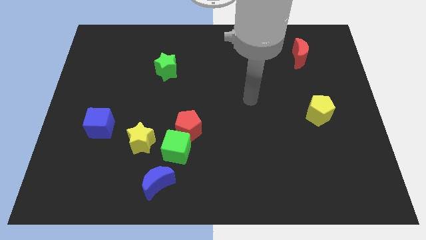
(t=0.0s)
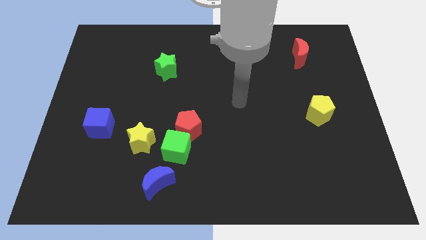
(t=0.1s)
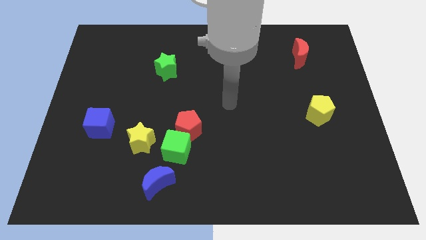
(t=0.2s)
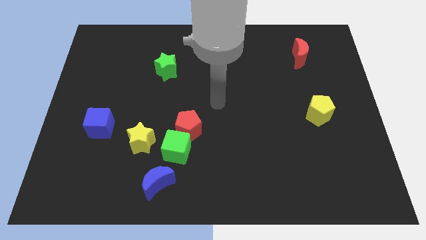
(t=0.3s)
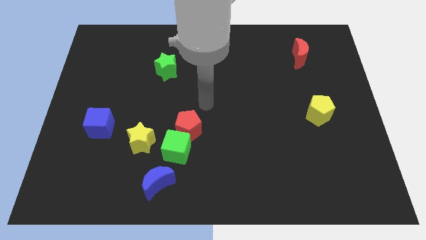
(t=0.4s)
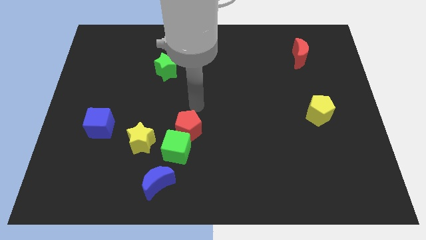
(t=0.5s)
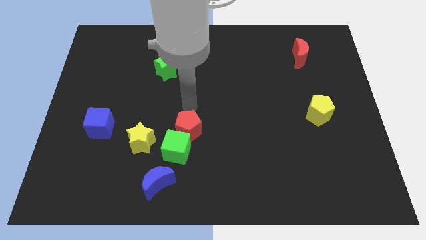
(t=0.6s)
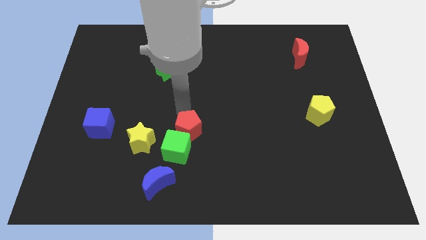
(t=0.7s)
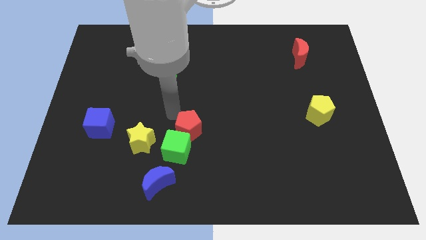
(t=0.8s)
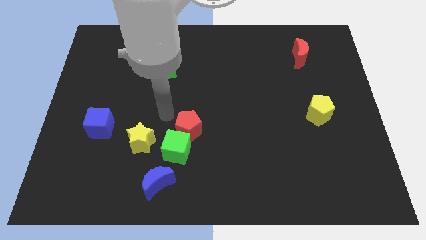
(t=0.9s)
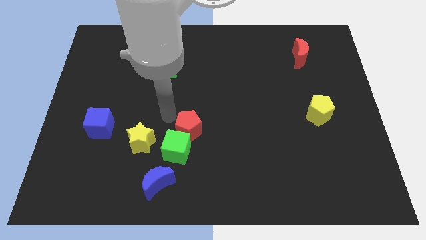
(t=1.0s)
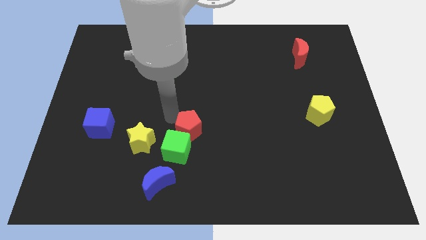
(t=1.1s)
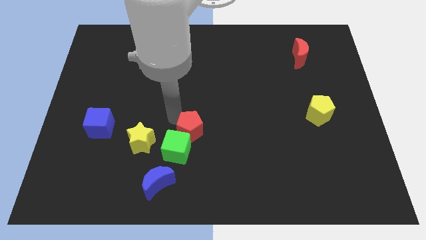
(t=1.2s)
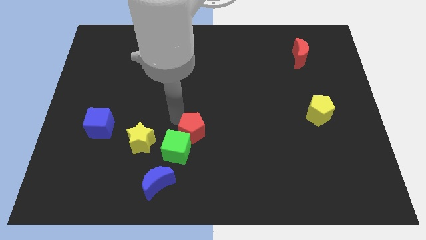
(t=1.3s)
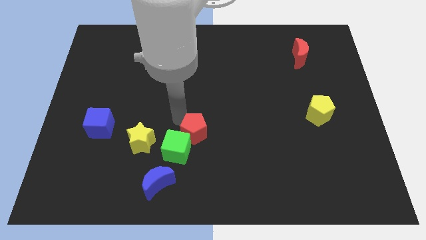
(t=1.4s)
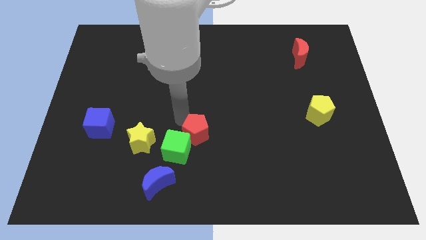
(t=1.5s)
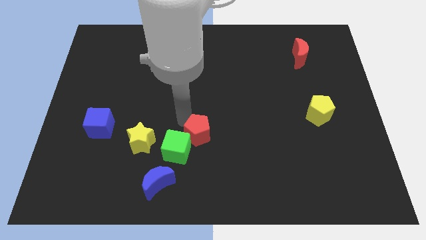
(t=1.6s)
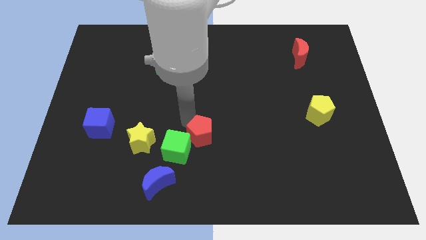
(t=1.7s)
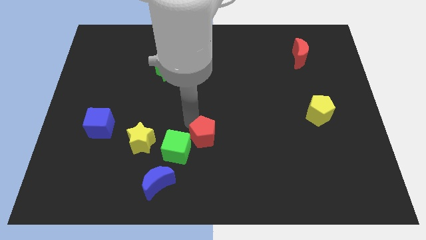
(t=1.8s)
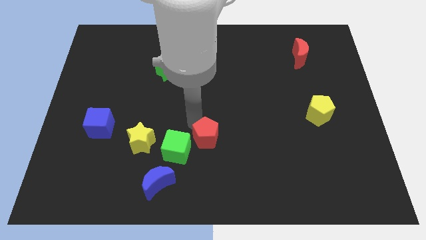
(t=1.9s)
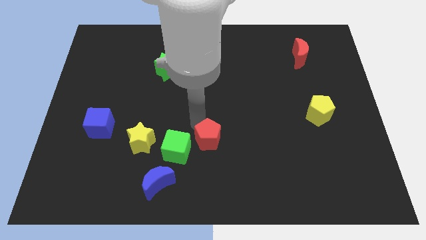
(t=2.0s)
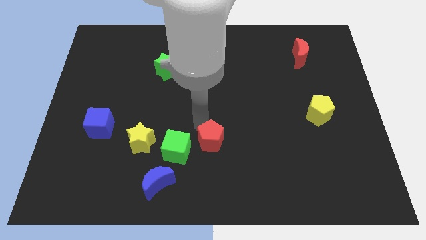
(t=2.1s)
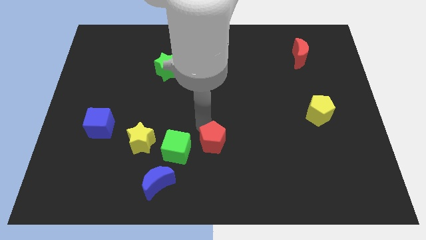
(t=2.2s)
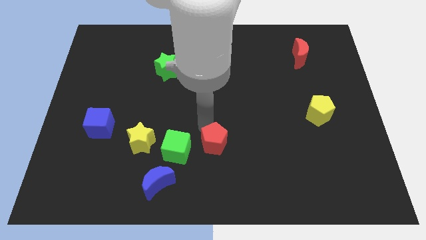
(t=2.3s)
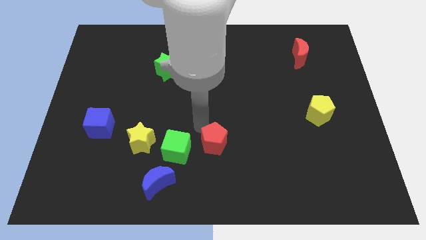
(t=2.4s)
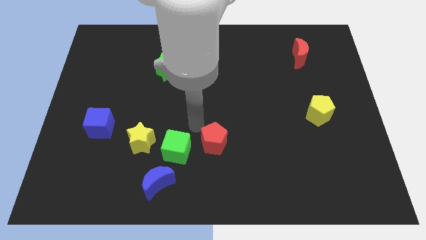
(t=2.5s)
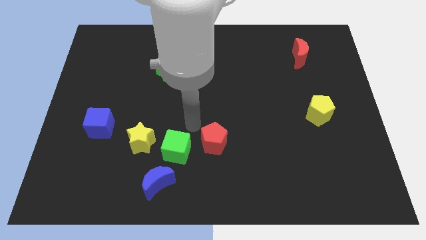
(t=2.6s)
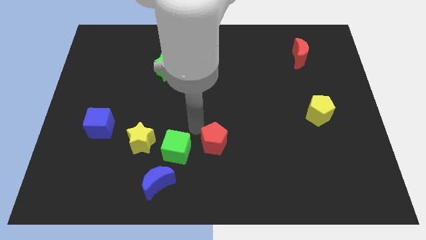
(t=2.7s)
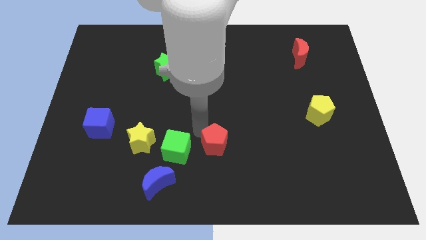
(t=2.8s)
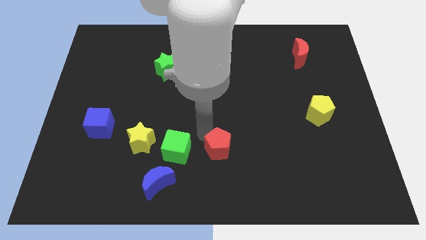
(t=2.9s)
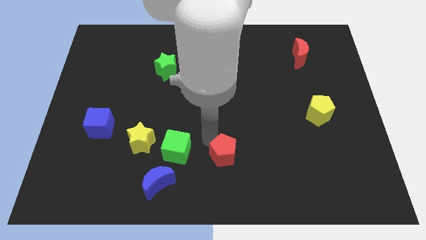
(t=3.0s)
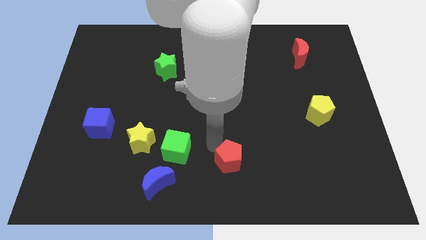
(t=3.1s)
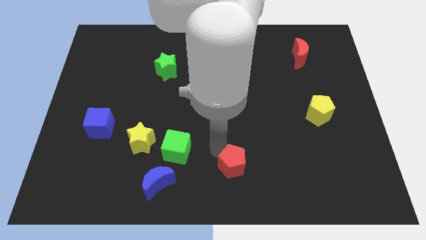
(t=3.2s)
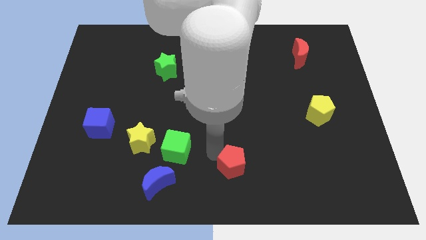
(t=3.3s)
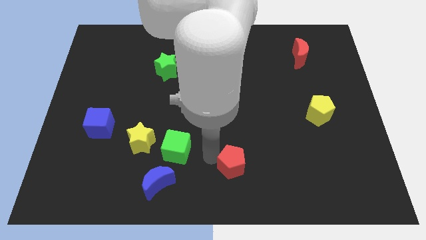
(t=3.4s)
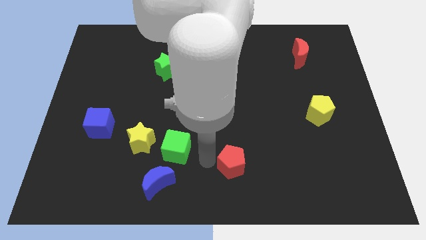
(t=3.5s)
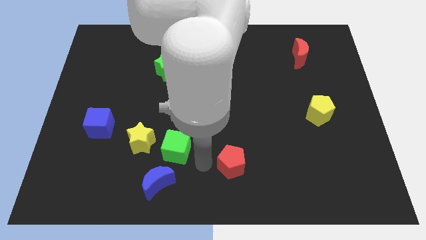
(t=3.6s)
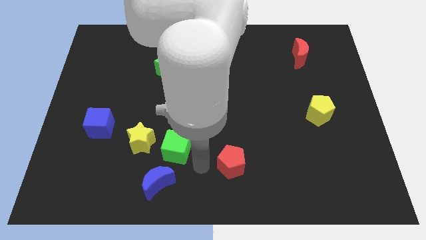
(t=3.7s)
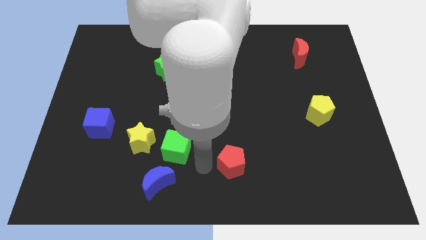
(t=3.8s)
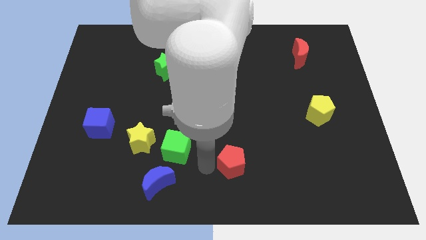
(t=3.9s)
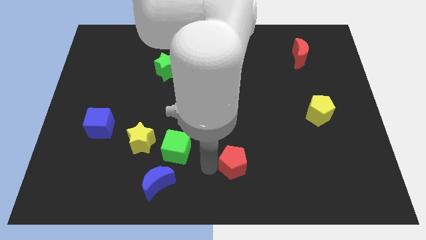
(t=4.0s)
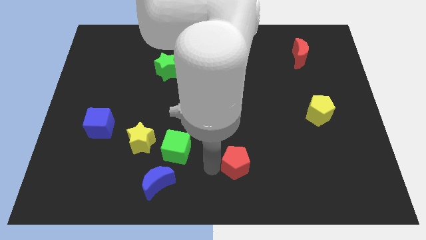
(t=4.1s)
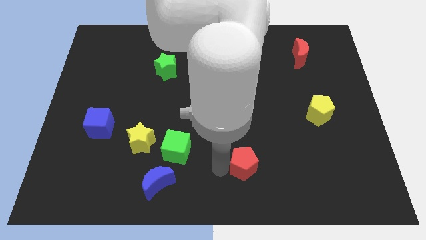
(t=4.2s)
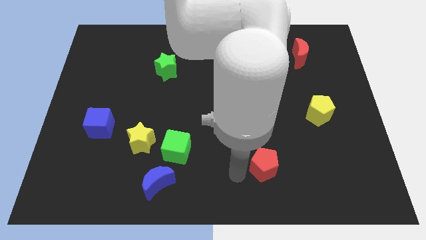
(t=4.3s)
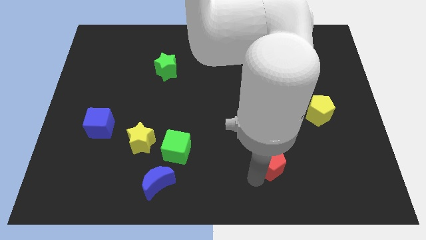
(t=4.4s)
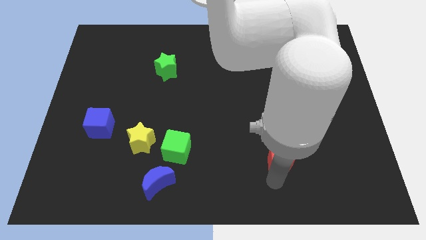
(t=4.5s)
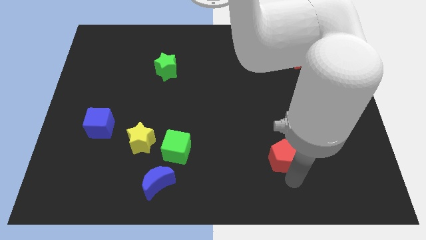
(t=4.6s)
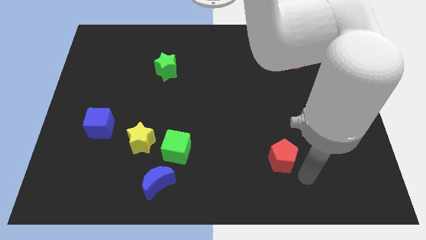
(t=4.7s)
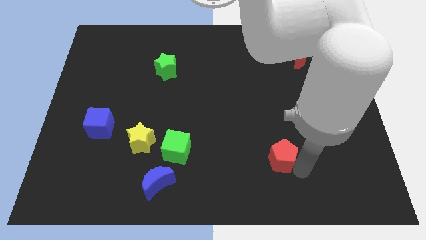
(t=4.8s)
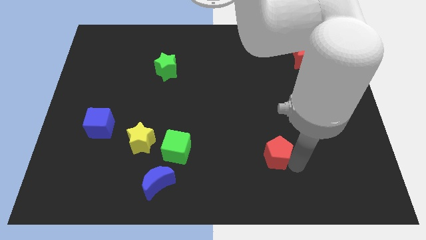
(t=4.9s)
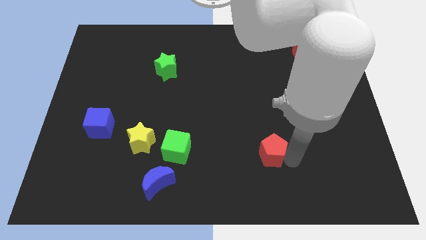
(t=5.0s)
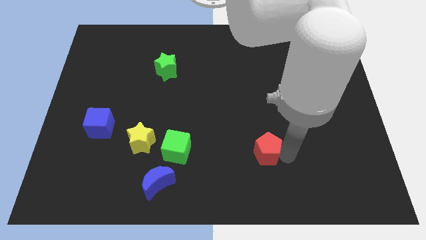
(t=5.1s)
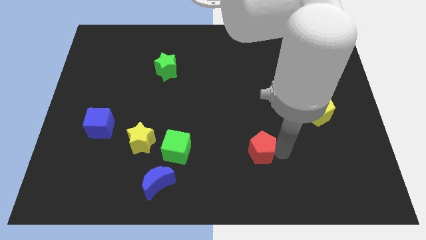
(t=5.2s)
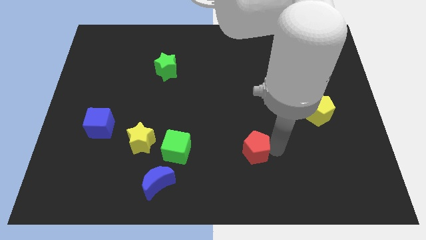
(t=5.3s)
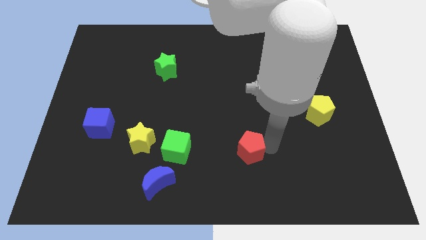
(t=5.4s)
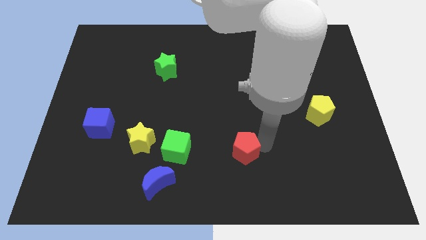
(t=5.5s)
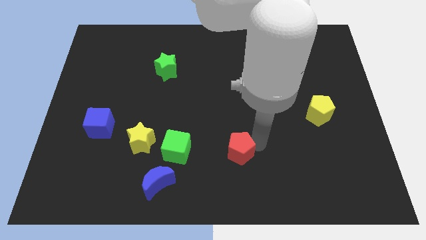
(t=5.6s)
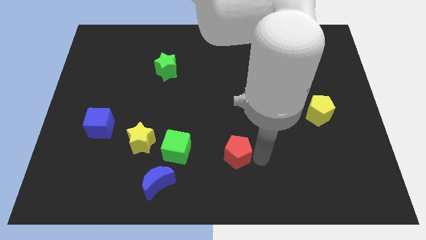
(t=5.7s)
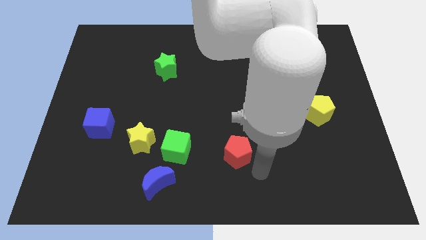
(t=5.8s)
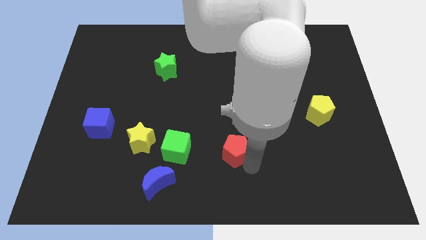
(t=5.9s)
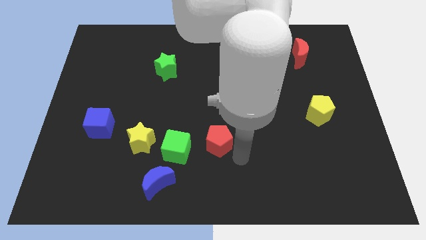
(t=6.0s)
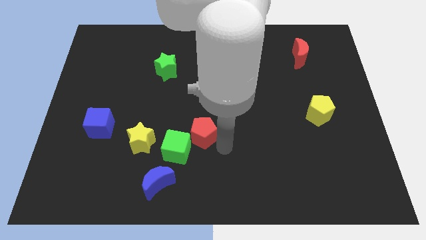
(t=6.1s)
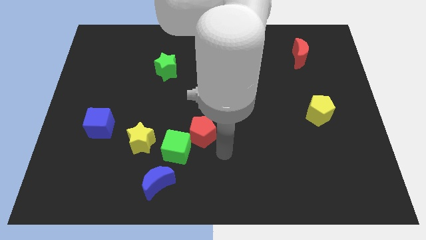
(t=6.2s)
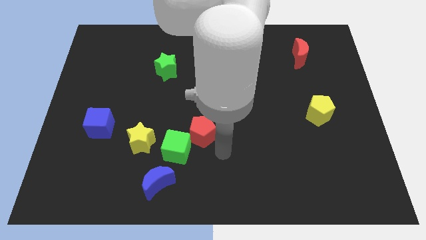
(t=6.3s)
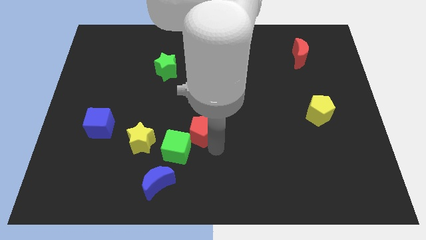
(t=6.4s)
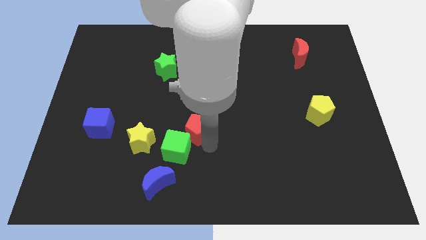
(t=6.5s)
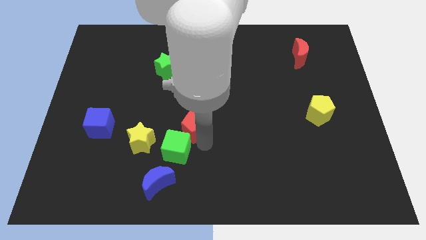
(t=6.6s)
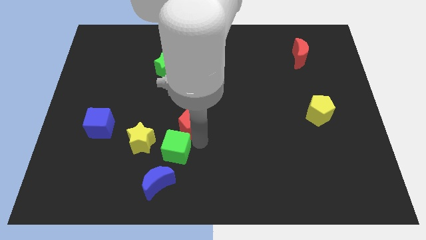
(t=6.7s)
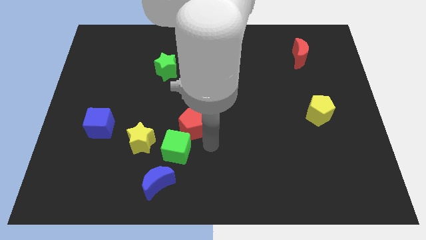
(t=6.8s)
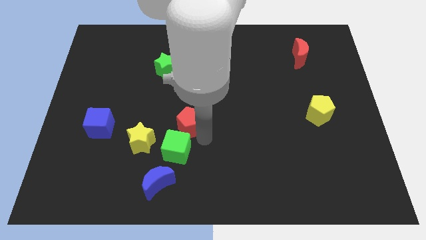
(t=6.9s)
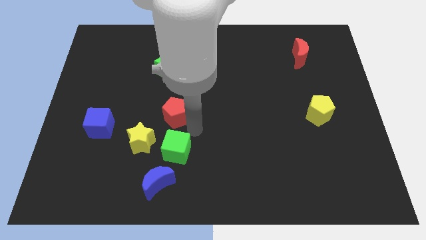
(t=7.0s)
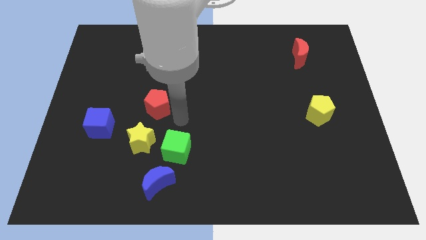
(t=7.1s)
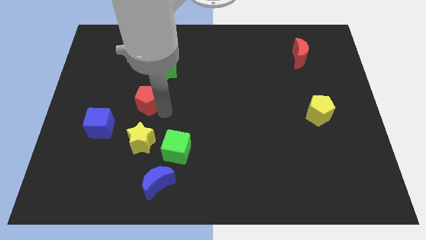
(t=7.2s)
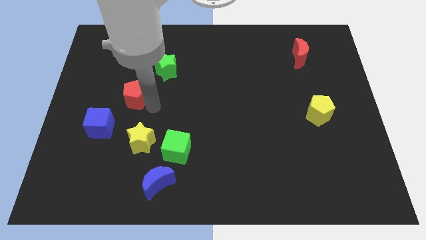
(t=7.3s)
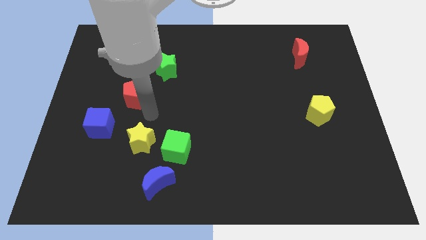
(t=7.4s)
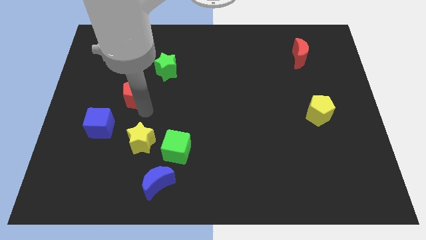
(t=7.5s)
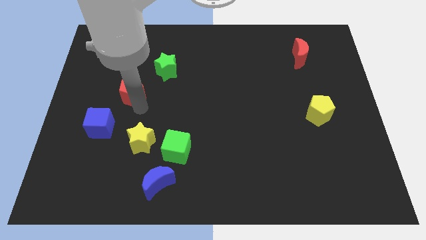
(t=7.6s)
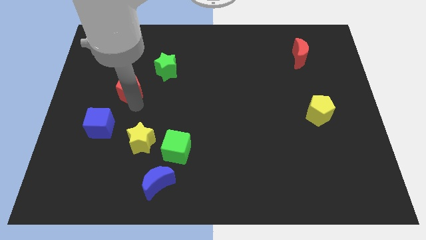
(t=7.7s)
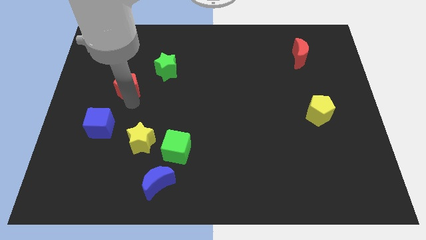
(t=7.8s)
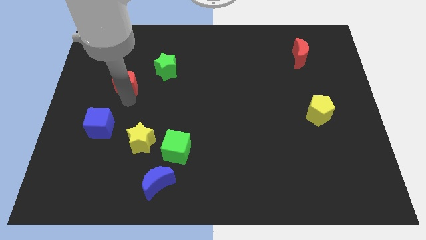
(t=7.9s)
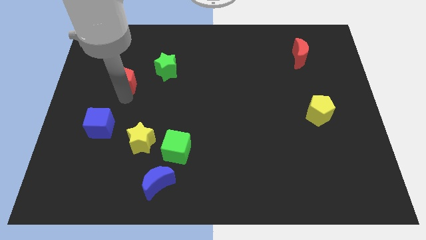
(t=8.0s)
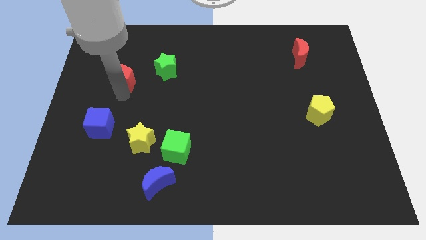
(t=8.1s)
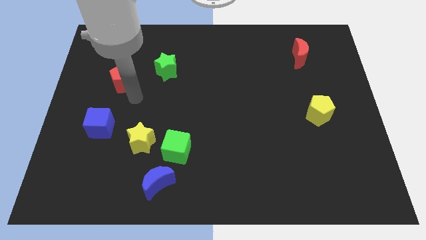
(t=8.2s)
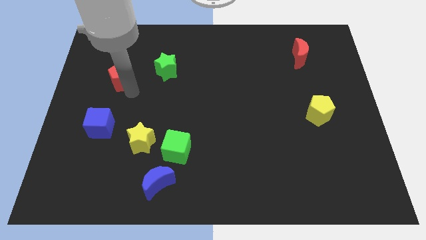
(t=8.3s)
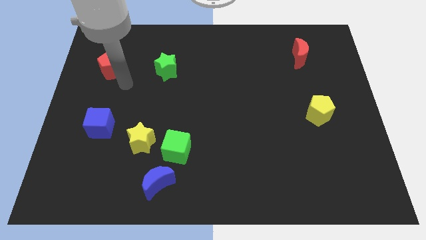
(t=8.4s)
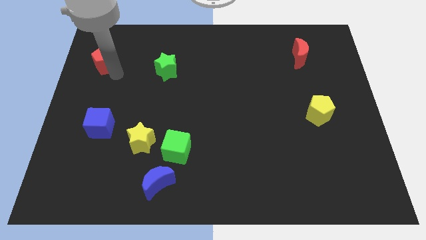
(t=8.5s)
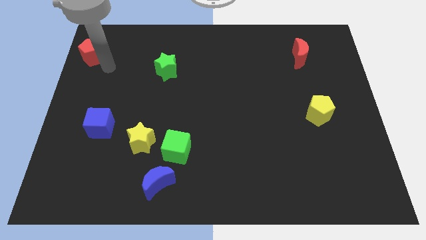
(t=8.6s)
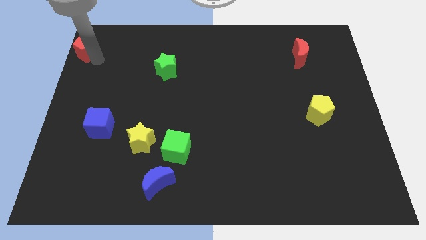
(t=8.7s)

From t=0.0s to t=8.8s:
push the red pentagon to the top left of the board
